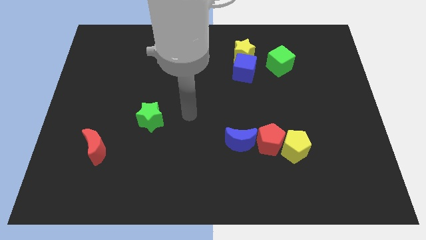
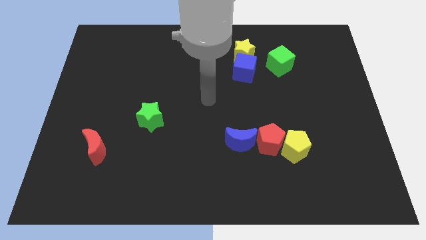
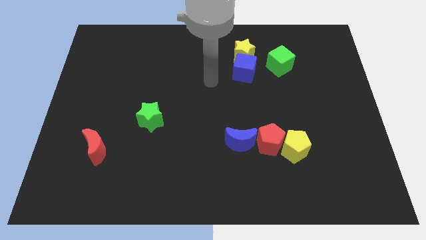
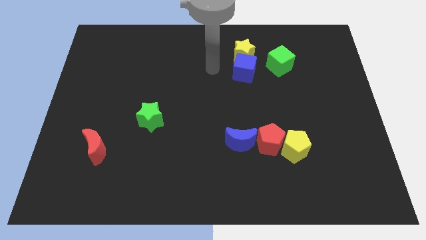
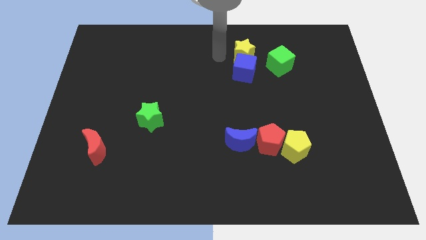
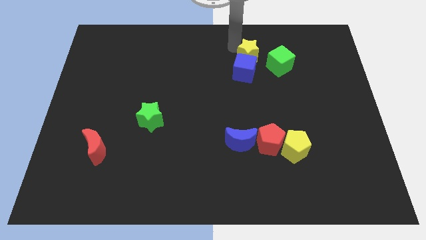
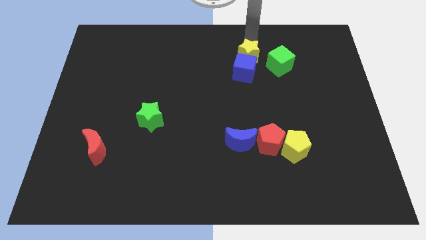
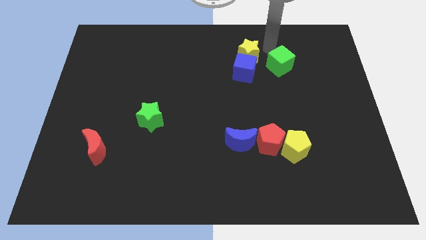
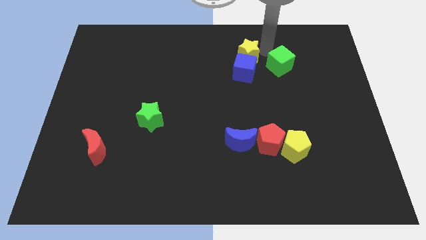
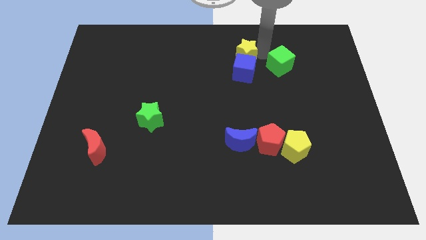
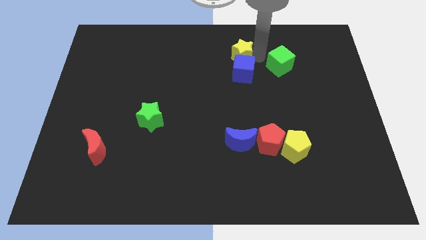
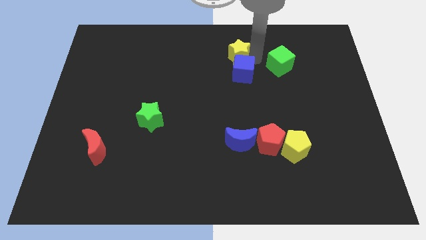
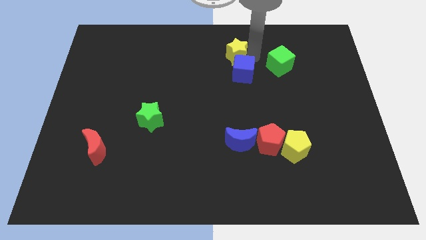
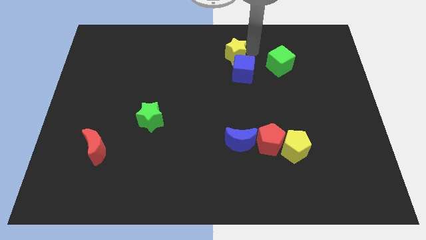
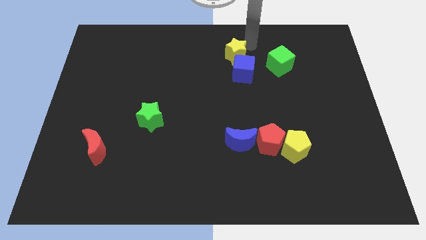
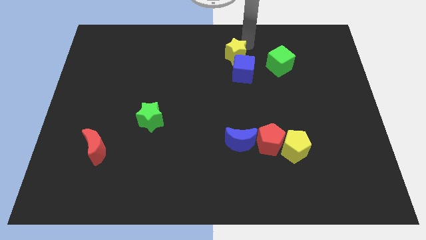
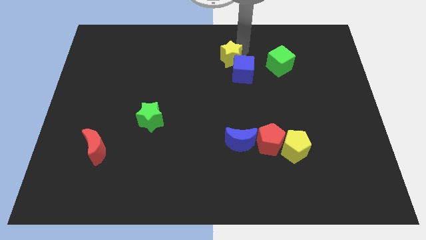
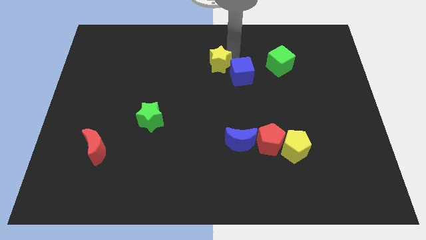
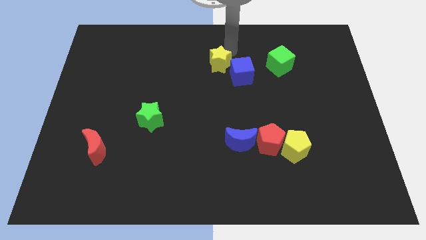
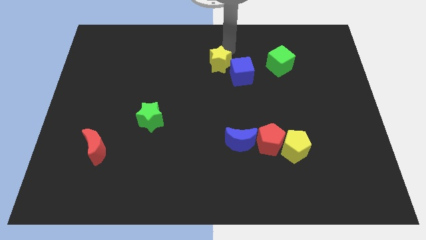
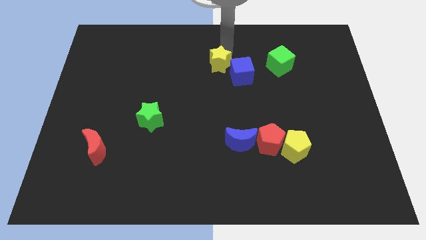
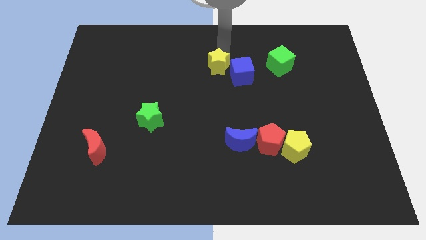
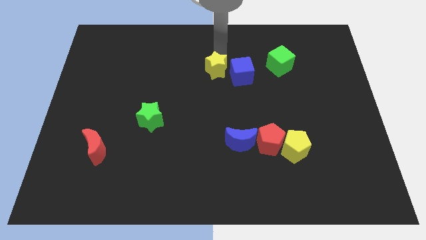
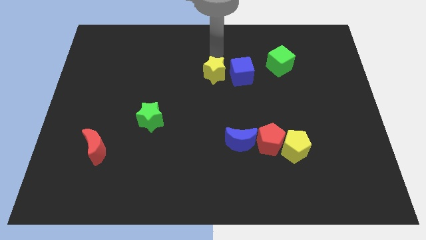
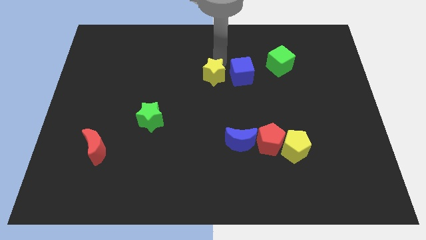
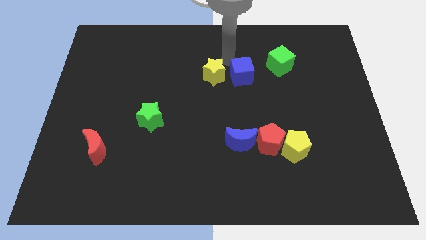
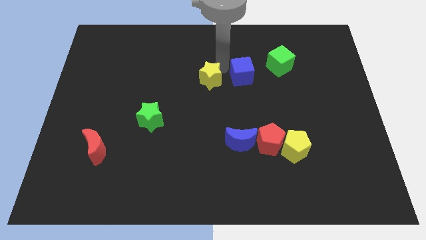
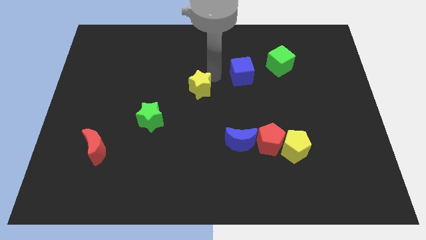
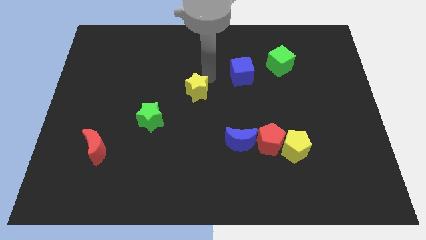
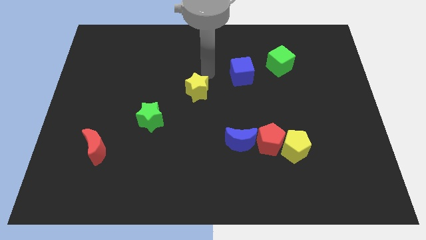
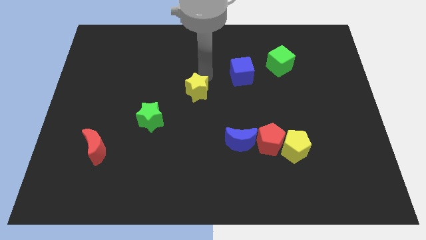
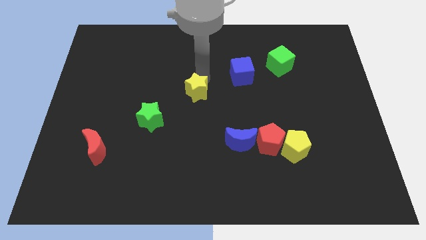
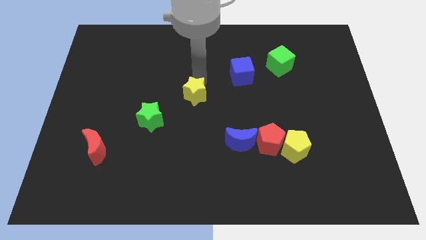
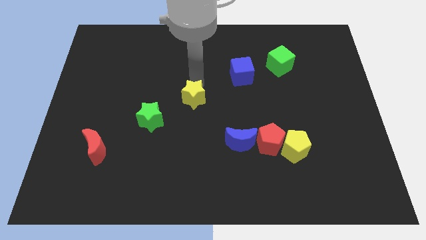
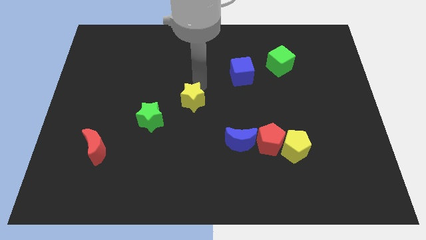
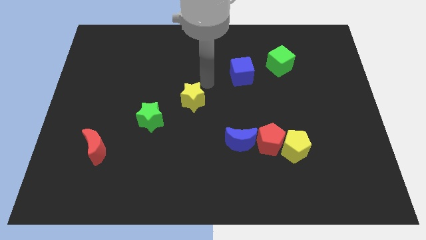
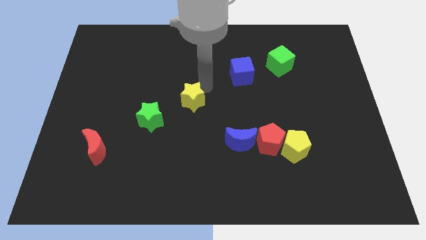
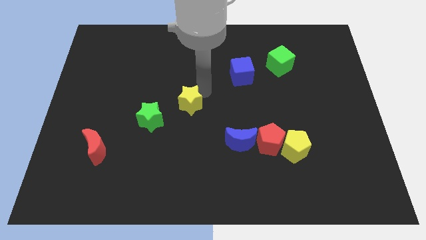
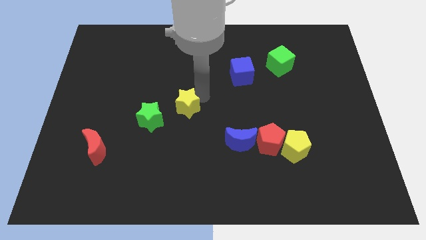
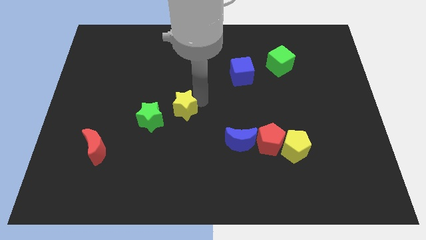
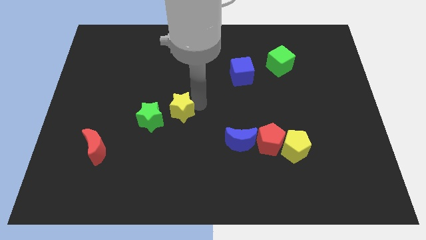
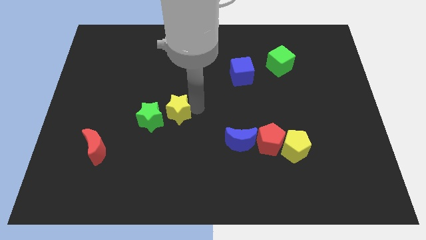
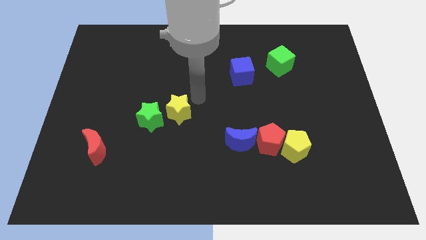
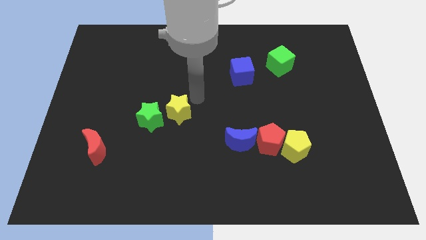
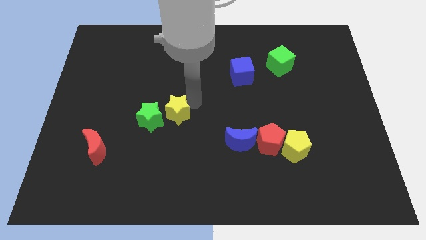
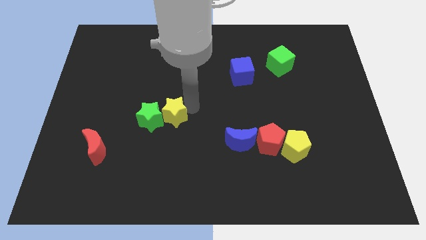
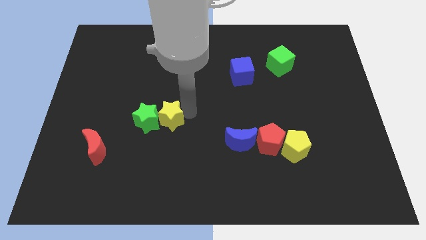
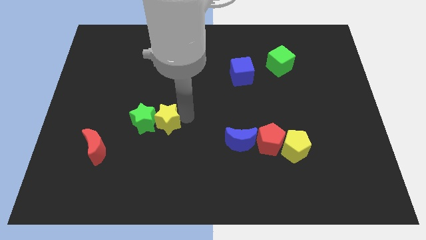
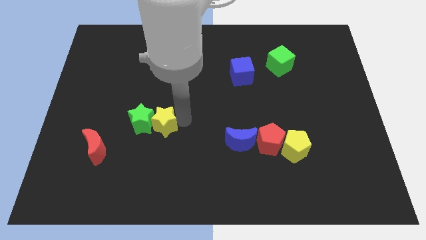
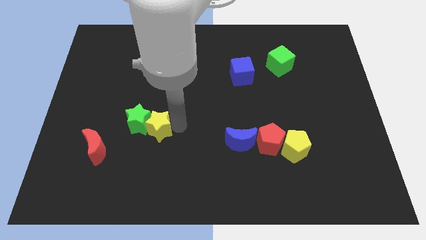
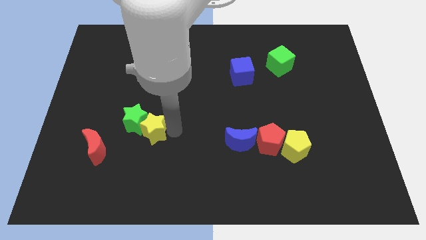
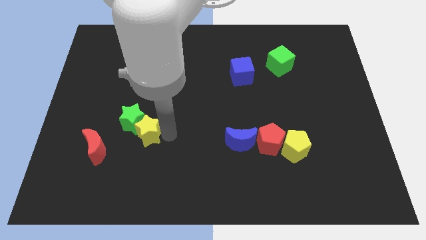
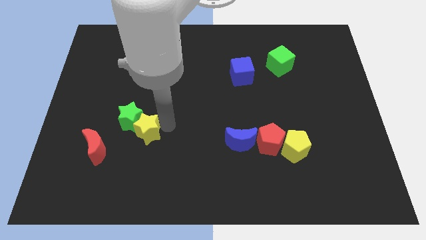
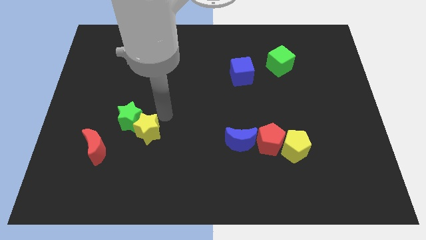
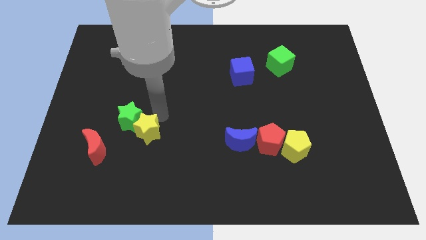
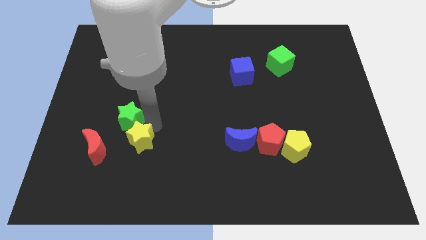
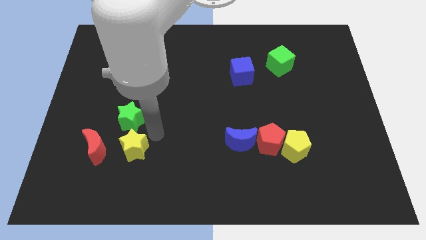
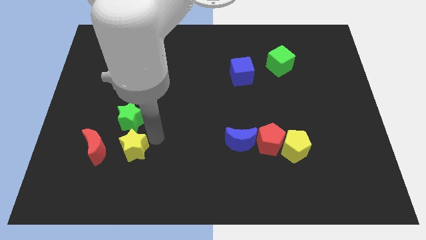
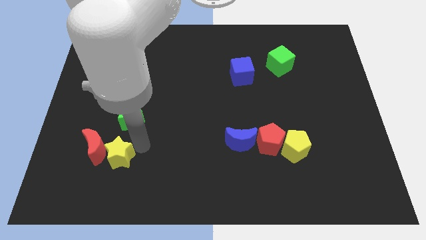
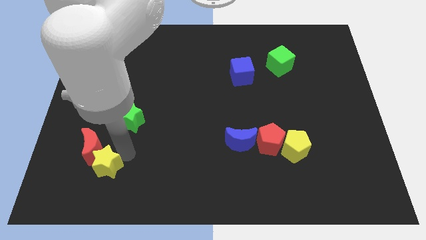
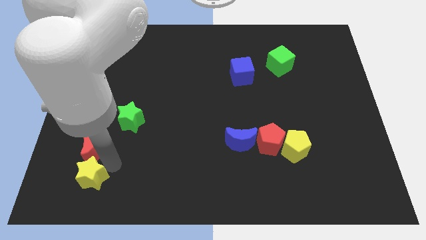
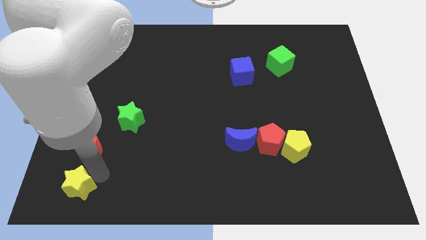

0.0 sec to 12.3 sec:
push the yellow star to the bottom left corner

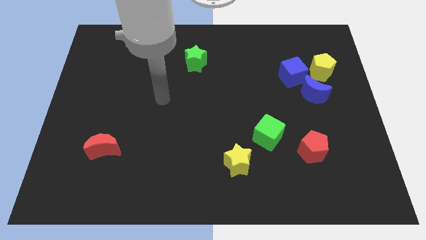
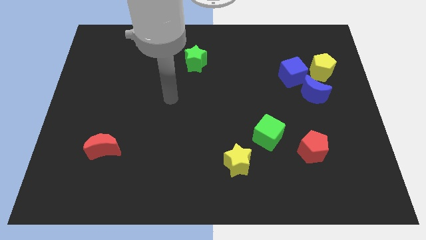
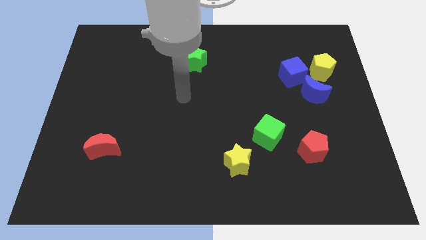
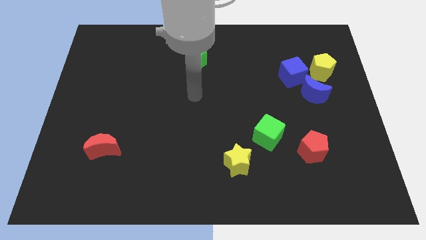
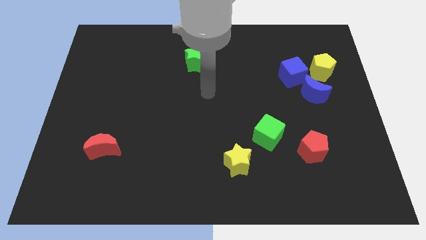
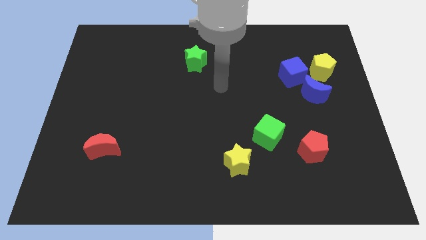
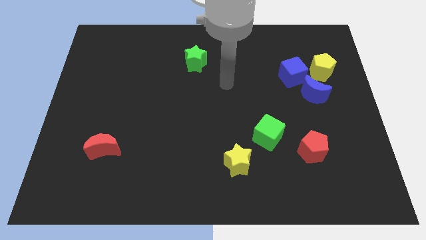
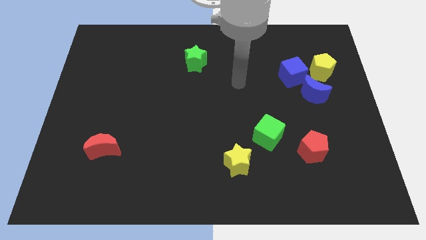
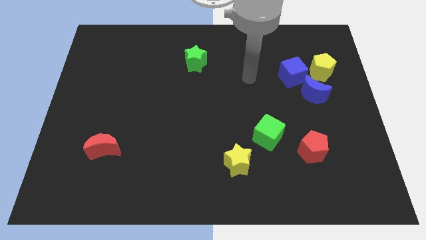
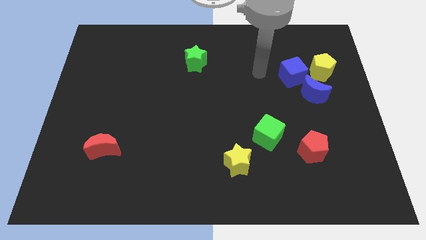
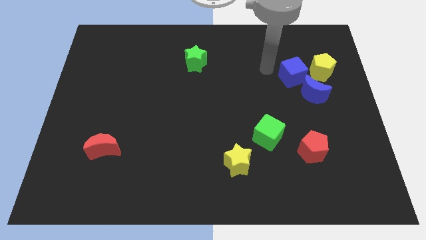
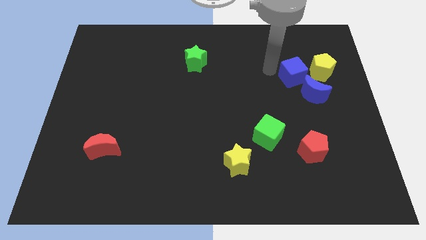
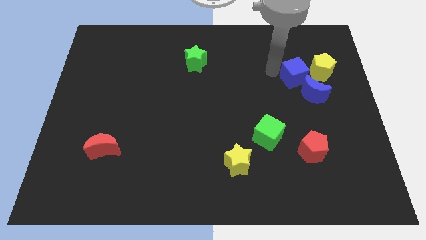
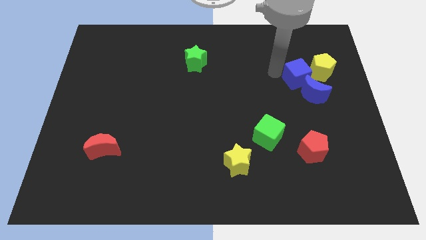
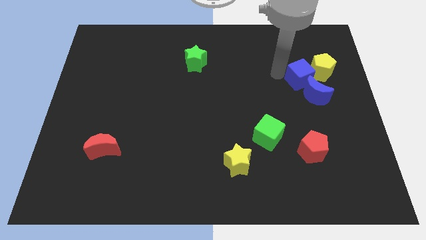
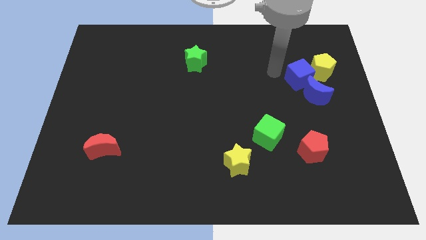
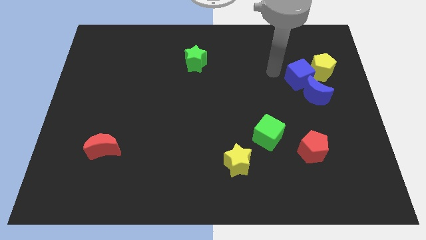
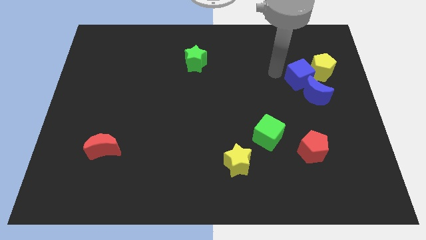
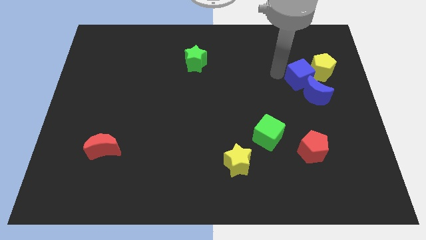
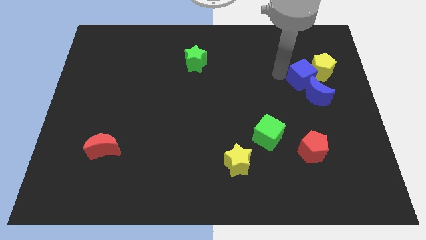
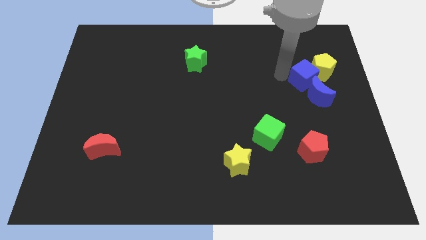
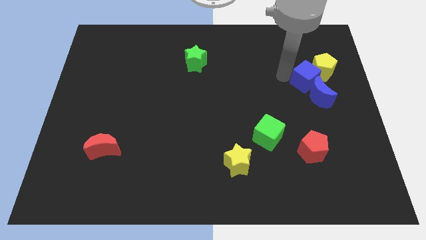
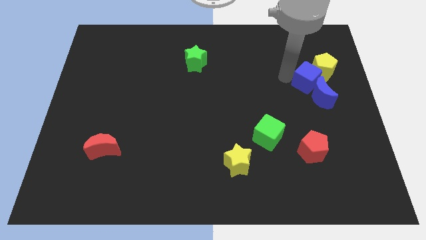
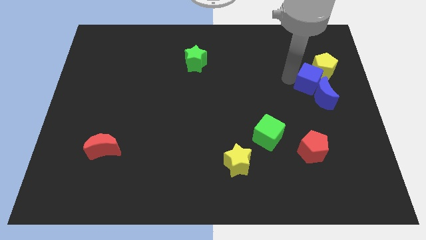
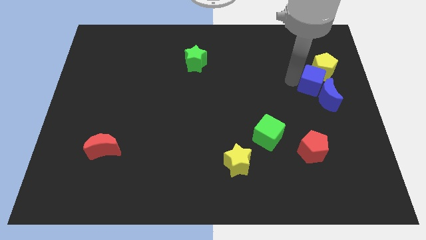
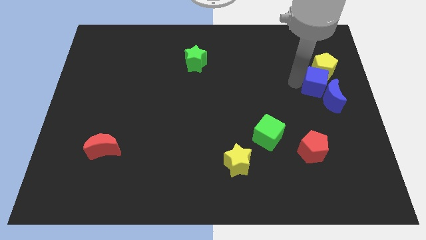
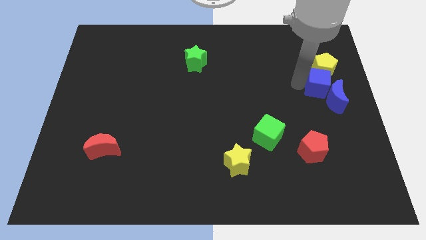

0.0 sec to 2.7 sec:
push the blue cube to the center right
